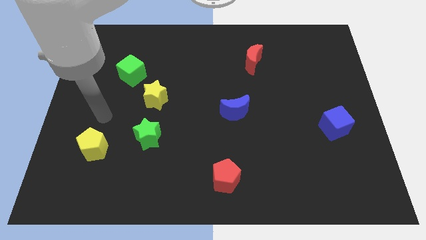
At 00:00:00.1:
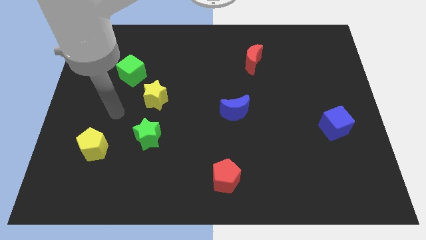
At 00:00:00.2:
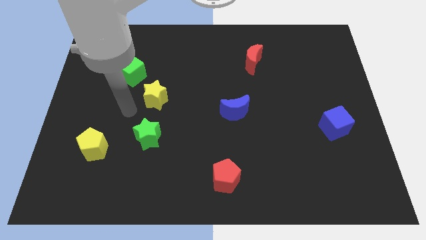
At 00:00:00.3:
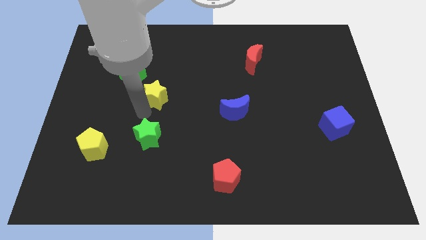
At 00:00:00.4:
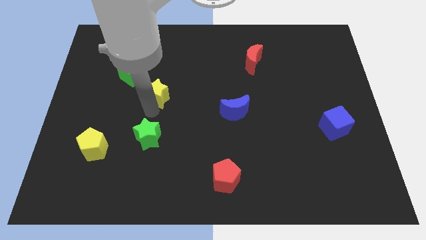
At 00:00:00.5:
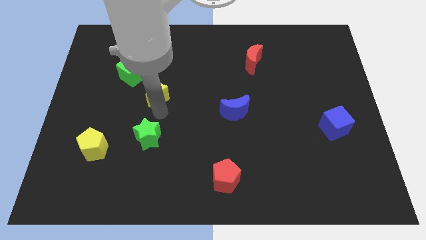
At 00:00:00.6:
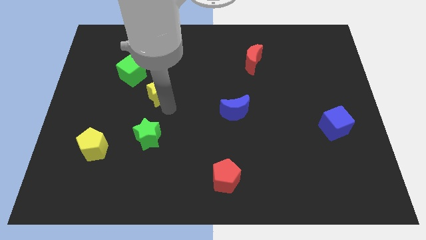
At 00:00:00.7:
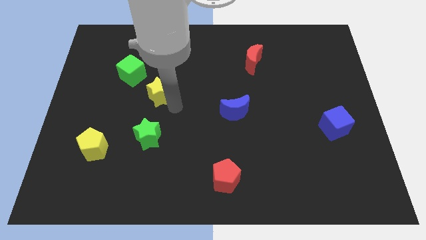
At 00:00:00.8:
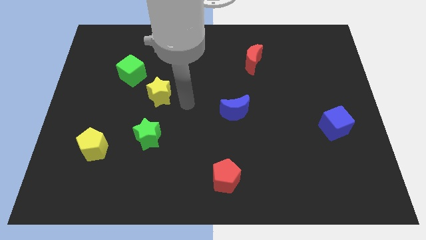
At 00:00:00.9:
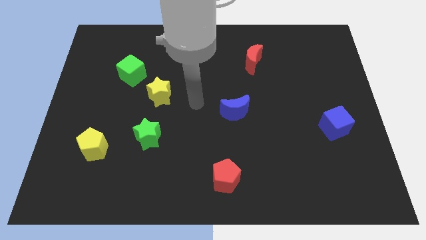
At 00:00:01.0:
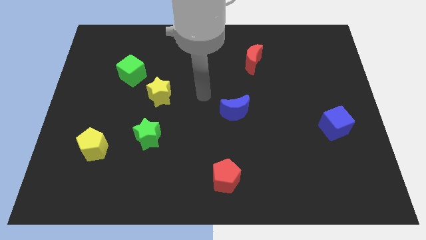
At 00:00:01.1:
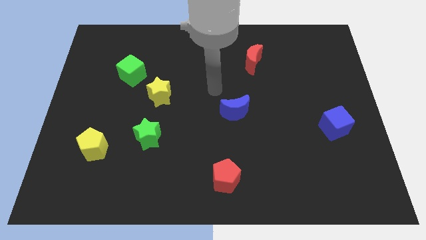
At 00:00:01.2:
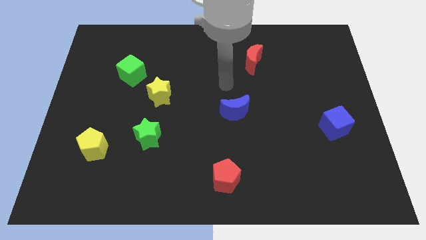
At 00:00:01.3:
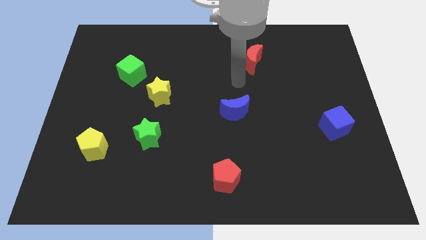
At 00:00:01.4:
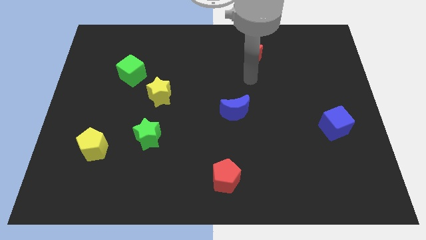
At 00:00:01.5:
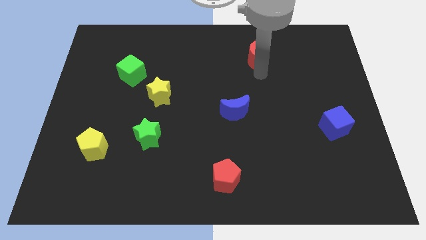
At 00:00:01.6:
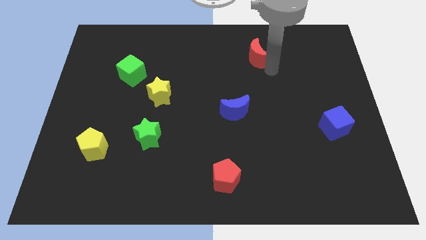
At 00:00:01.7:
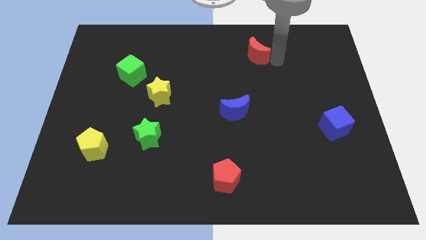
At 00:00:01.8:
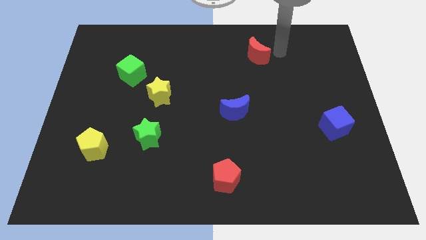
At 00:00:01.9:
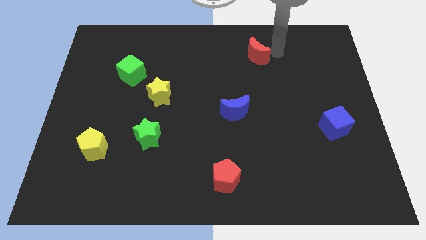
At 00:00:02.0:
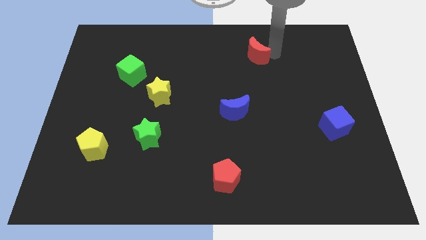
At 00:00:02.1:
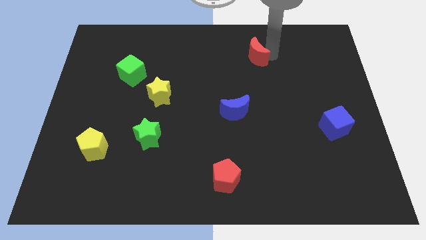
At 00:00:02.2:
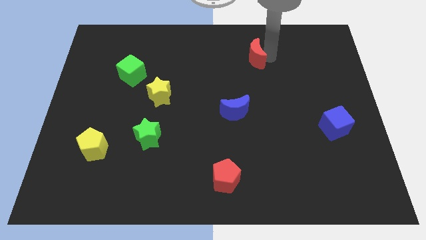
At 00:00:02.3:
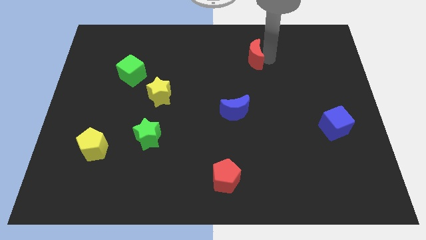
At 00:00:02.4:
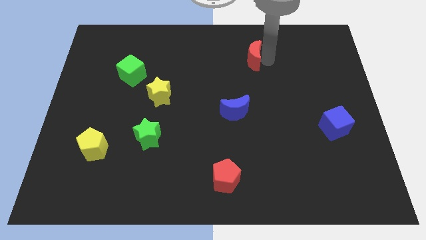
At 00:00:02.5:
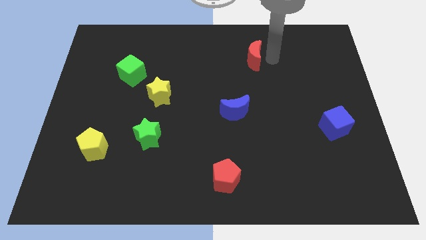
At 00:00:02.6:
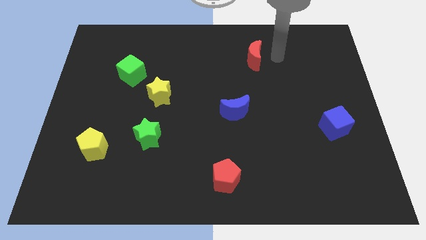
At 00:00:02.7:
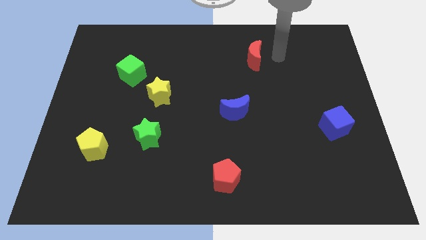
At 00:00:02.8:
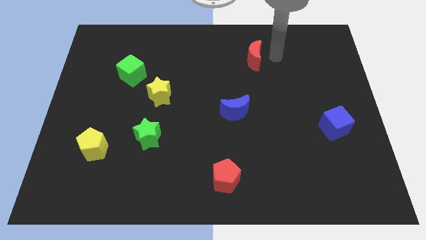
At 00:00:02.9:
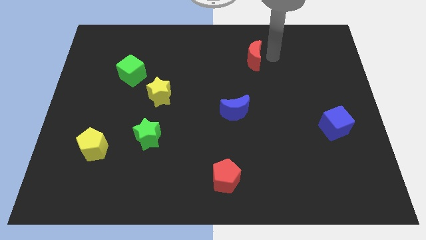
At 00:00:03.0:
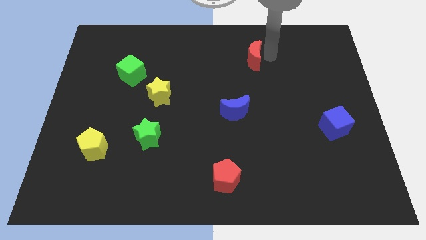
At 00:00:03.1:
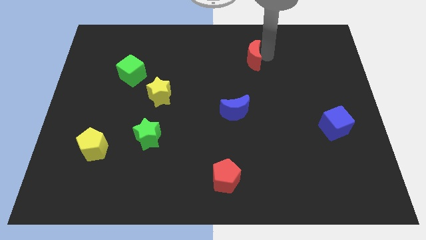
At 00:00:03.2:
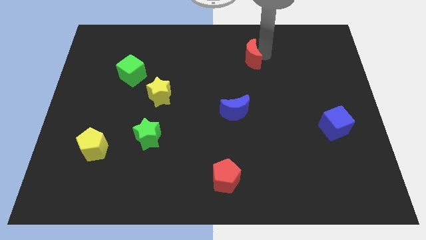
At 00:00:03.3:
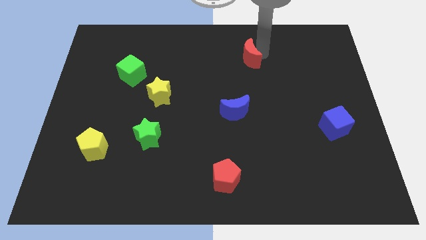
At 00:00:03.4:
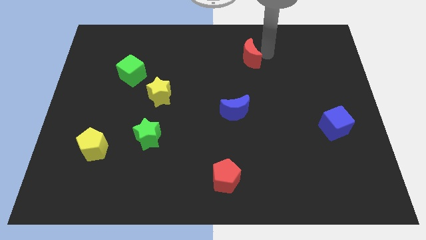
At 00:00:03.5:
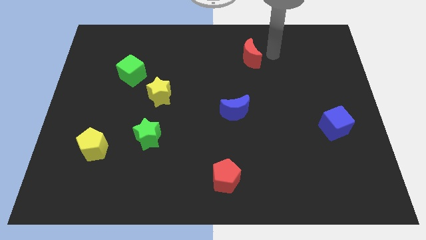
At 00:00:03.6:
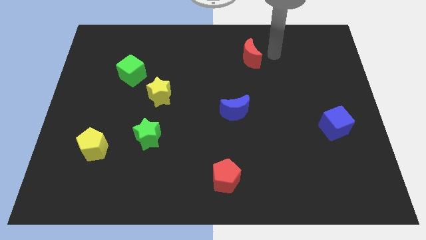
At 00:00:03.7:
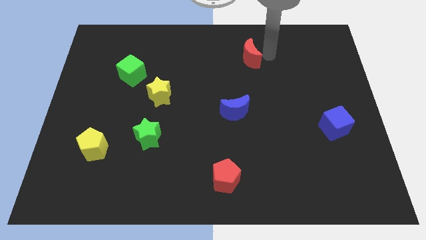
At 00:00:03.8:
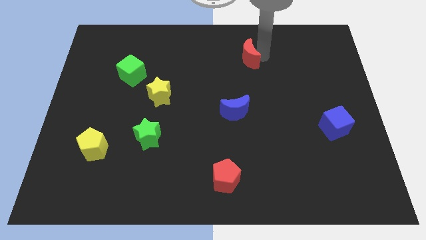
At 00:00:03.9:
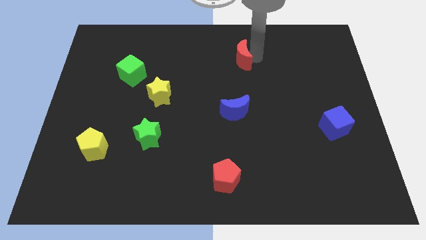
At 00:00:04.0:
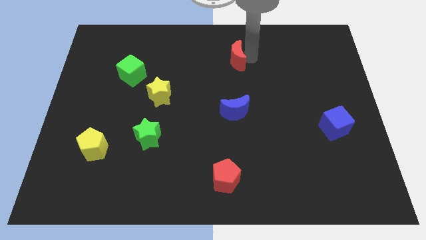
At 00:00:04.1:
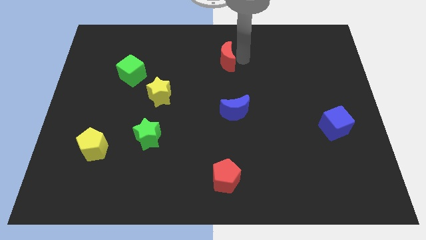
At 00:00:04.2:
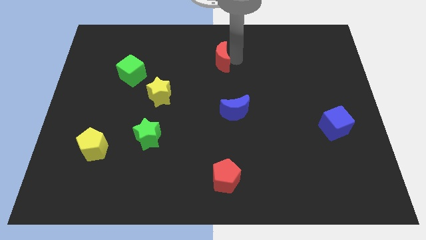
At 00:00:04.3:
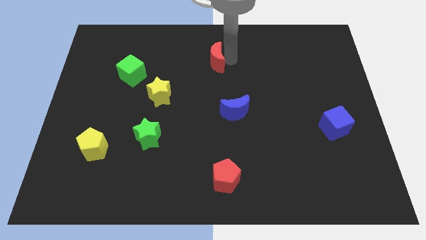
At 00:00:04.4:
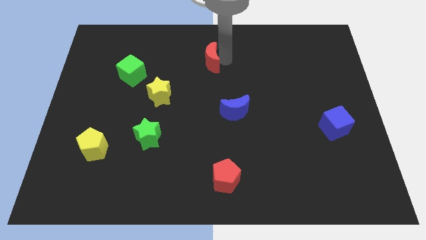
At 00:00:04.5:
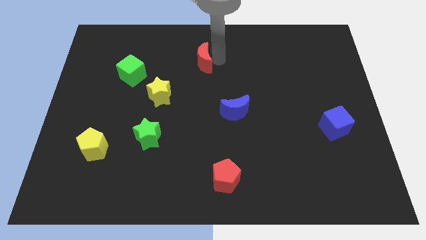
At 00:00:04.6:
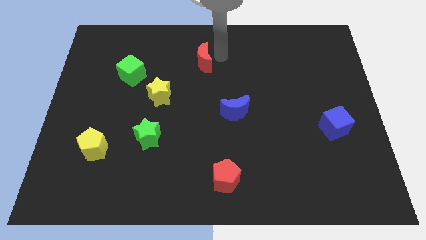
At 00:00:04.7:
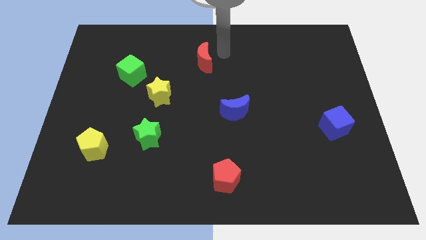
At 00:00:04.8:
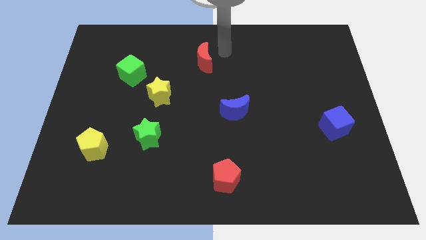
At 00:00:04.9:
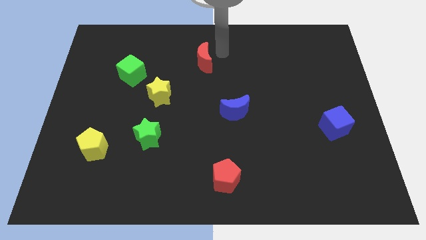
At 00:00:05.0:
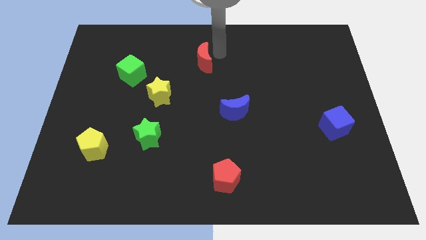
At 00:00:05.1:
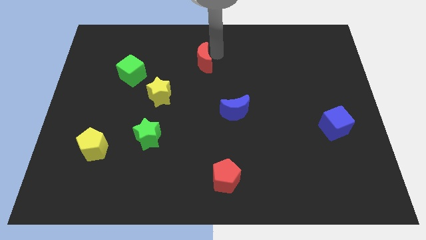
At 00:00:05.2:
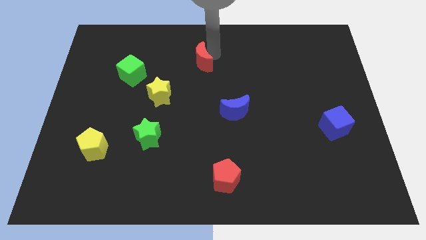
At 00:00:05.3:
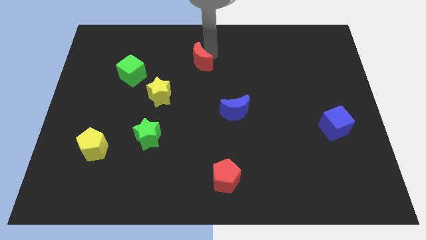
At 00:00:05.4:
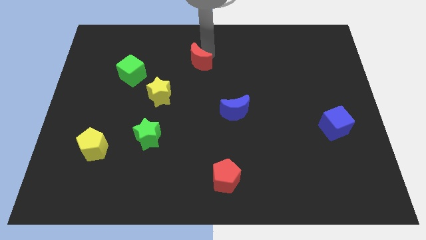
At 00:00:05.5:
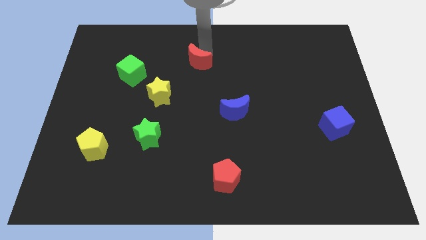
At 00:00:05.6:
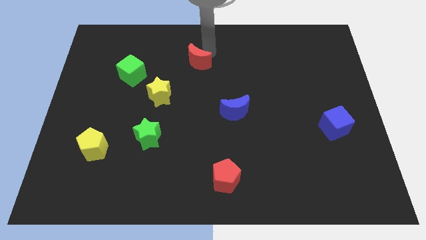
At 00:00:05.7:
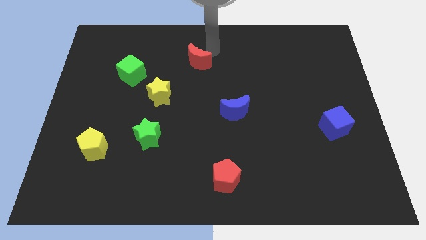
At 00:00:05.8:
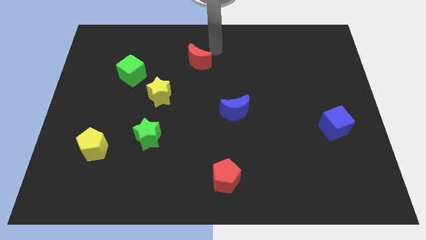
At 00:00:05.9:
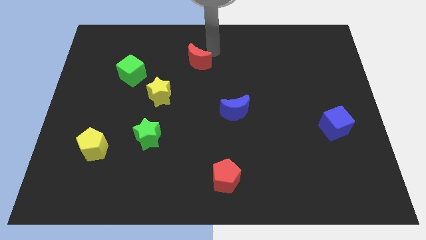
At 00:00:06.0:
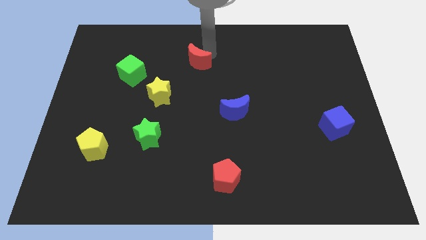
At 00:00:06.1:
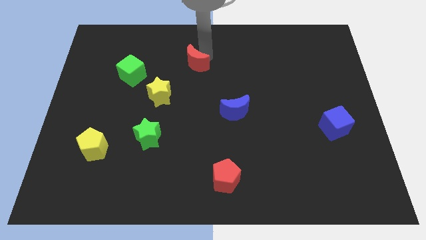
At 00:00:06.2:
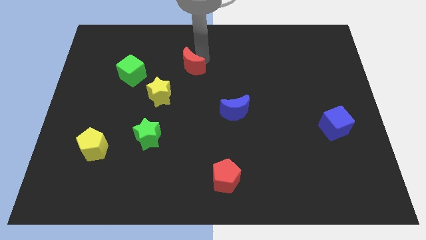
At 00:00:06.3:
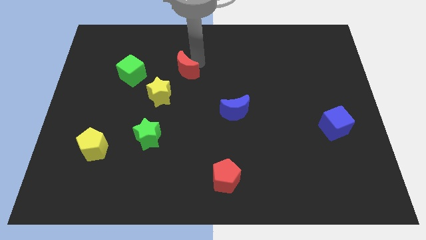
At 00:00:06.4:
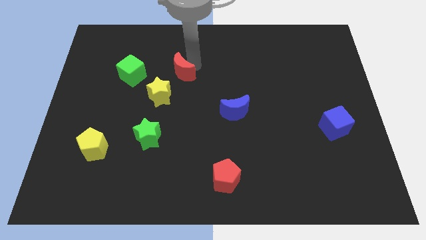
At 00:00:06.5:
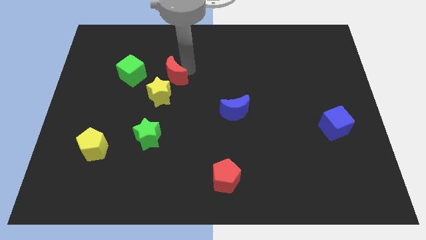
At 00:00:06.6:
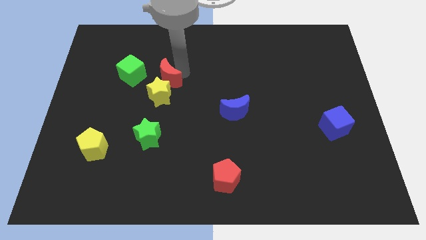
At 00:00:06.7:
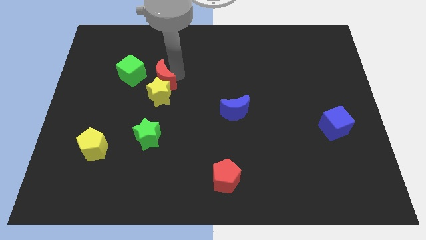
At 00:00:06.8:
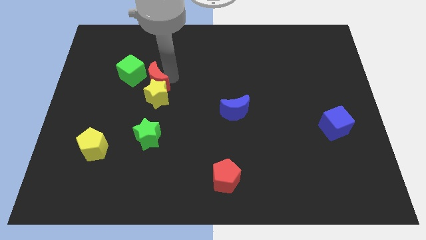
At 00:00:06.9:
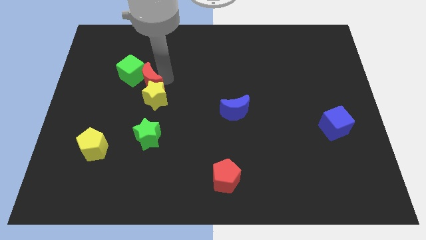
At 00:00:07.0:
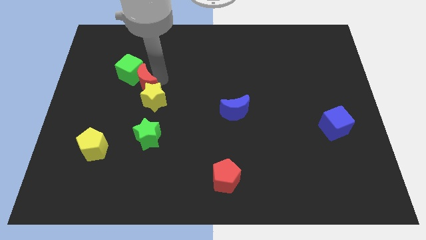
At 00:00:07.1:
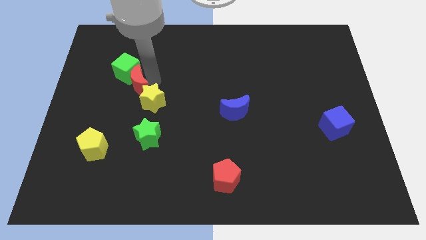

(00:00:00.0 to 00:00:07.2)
put the red moon just left of the yellow star

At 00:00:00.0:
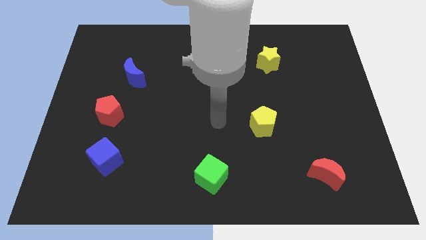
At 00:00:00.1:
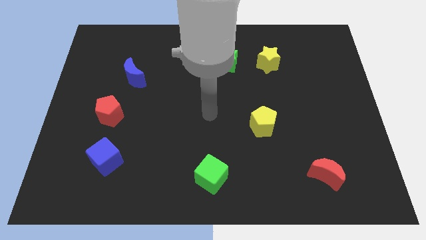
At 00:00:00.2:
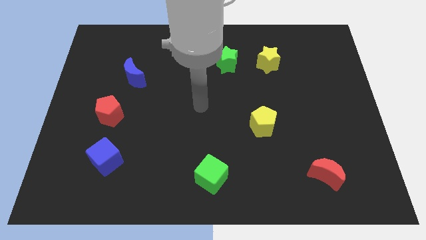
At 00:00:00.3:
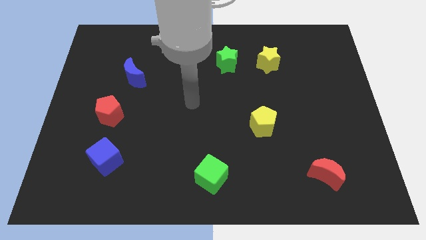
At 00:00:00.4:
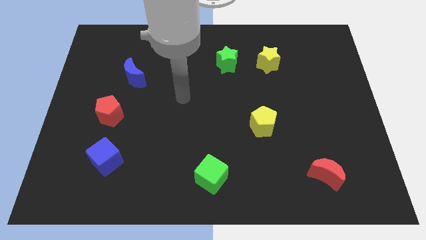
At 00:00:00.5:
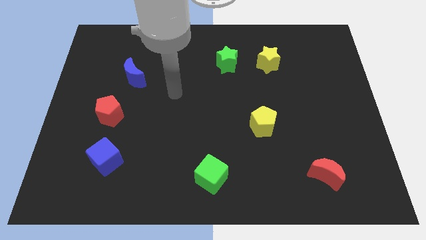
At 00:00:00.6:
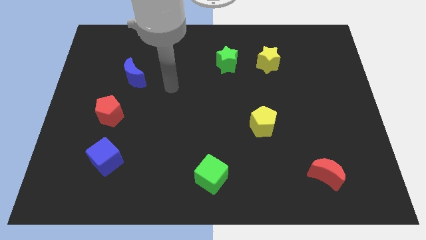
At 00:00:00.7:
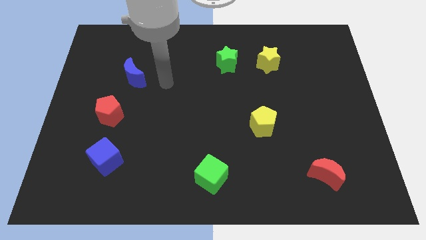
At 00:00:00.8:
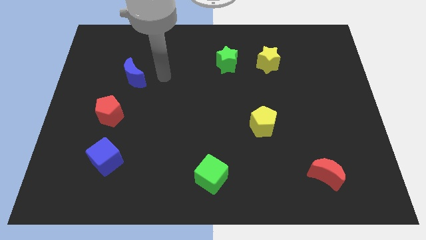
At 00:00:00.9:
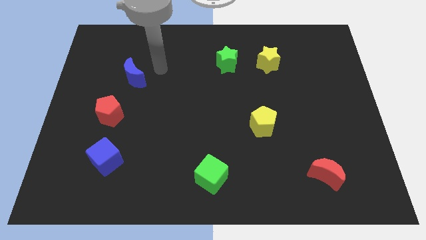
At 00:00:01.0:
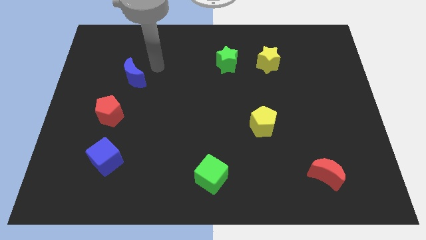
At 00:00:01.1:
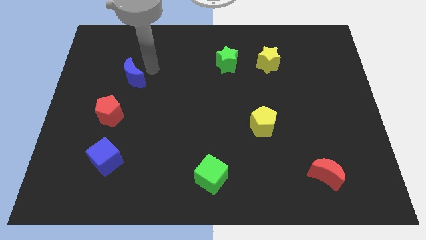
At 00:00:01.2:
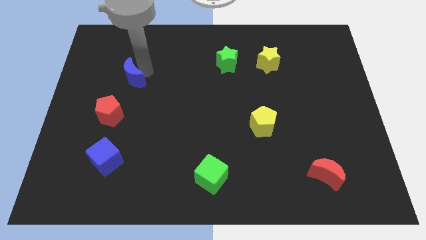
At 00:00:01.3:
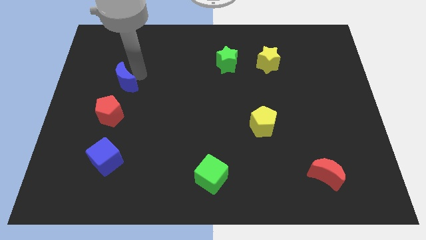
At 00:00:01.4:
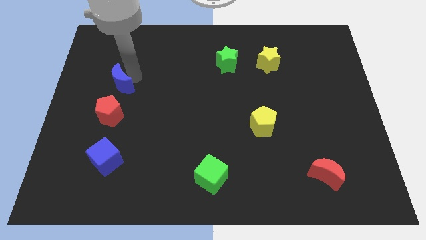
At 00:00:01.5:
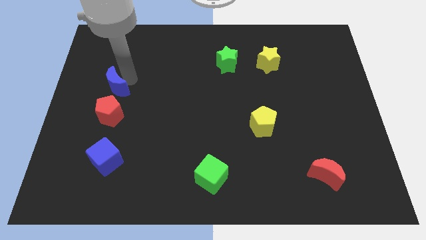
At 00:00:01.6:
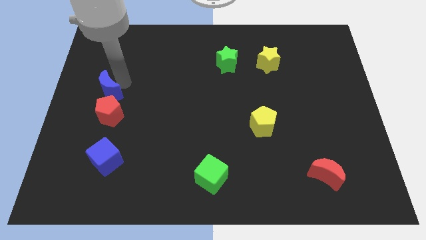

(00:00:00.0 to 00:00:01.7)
slide the blue moon to the top left side of the red pentagon
